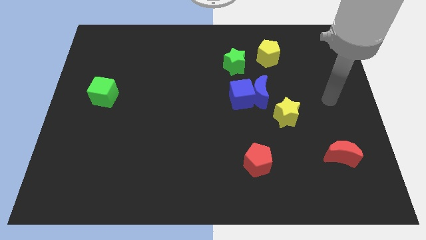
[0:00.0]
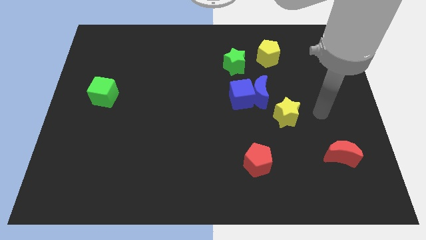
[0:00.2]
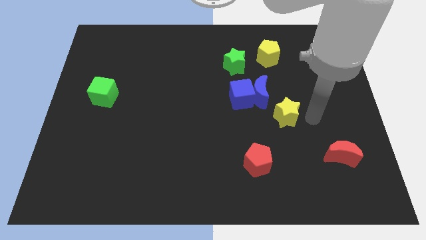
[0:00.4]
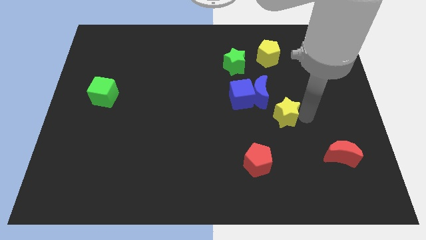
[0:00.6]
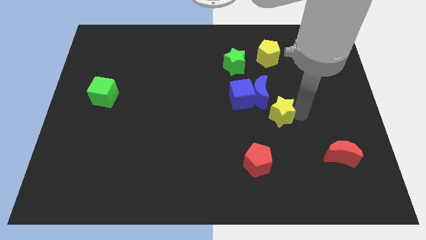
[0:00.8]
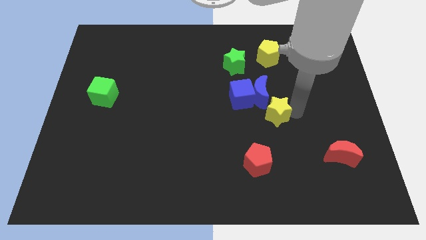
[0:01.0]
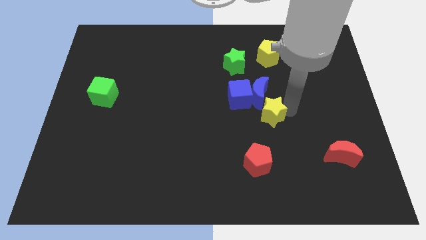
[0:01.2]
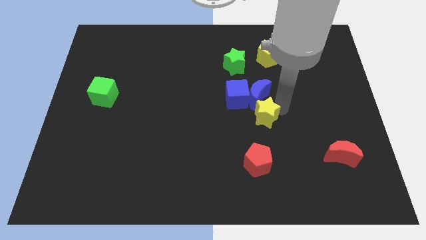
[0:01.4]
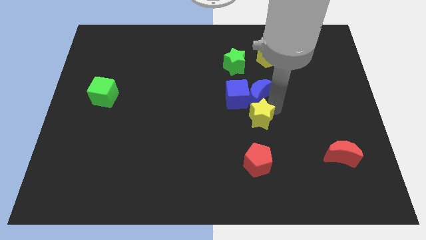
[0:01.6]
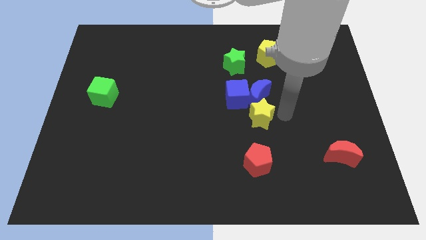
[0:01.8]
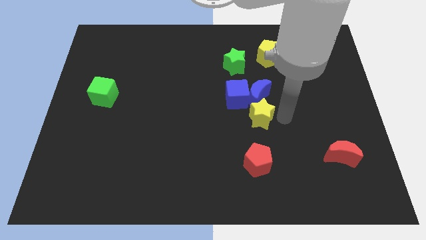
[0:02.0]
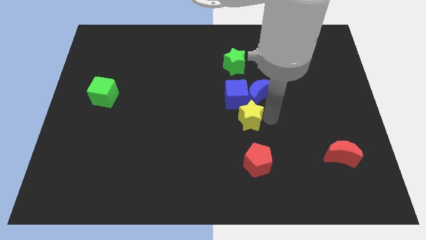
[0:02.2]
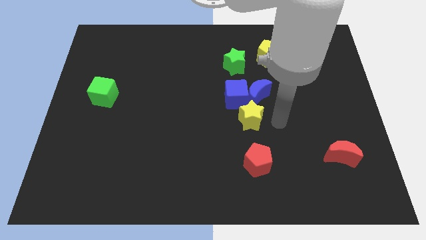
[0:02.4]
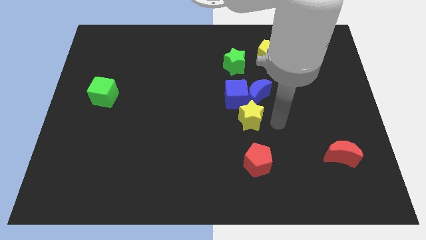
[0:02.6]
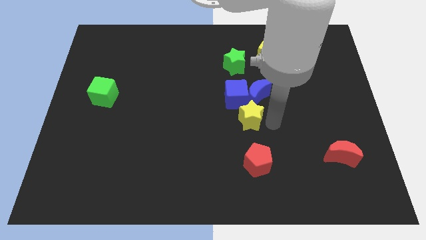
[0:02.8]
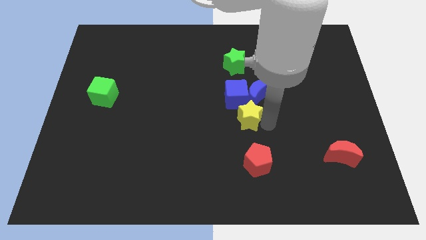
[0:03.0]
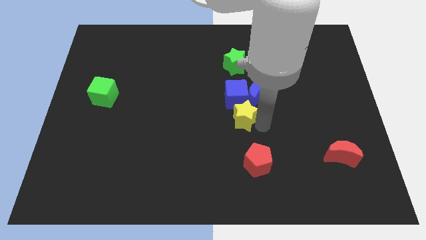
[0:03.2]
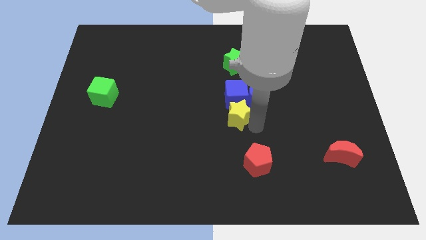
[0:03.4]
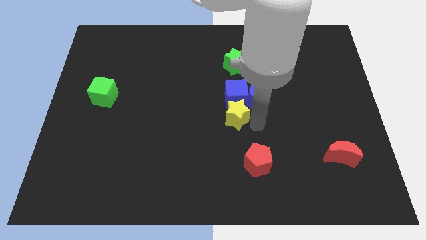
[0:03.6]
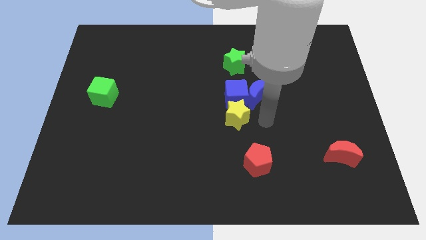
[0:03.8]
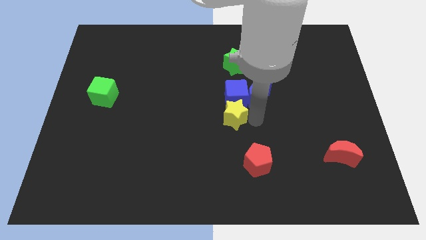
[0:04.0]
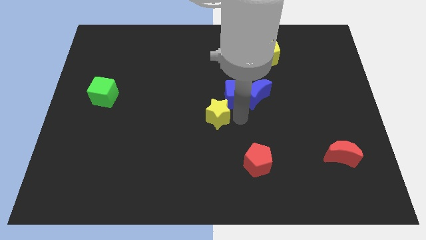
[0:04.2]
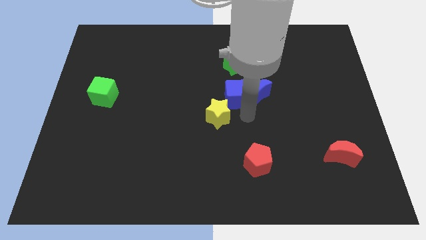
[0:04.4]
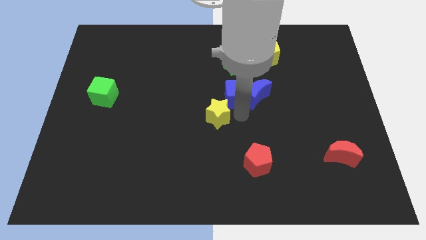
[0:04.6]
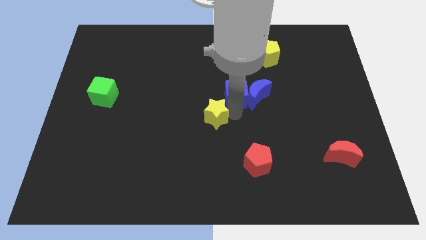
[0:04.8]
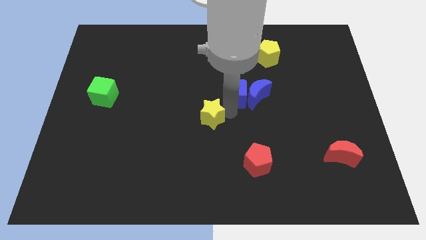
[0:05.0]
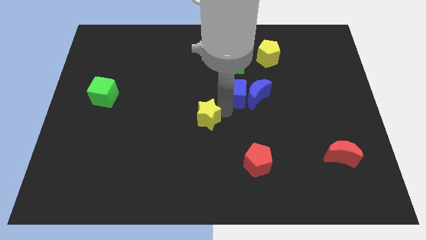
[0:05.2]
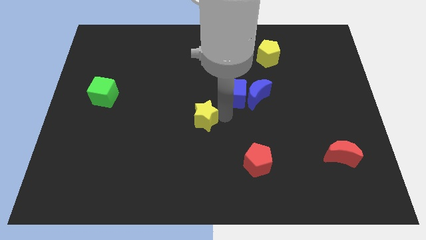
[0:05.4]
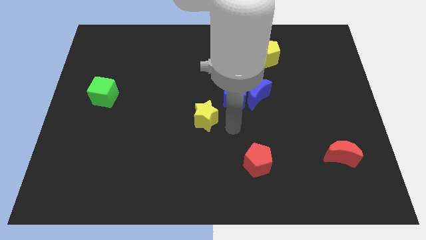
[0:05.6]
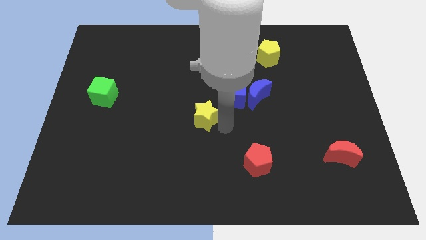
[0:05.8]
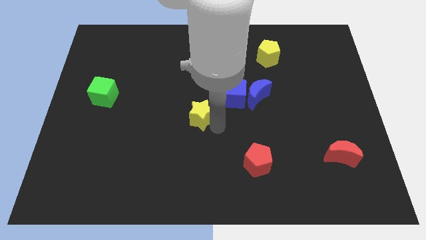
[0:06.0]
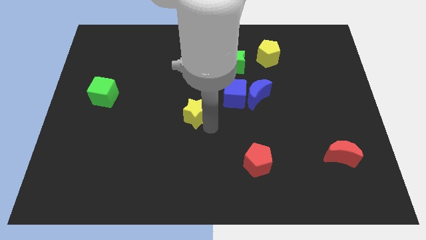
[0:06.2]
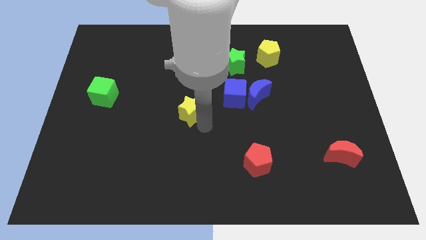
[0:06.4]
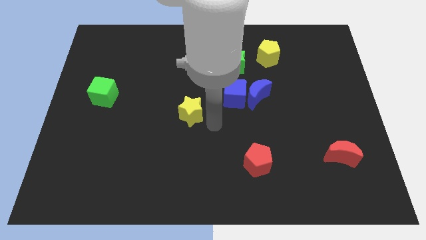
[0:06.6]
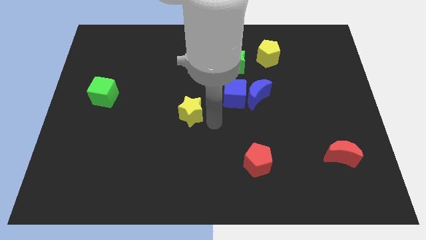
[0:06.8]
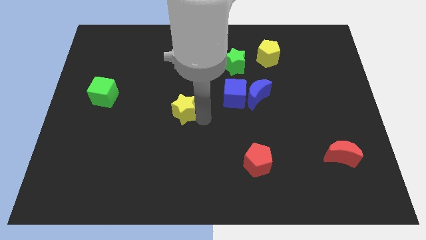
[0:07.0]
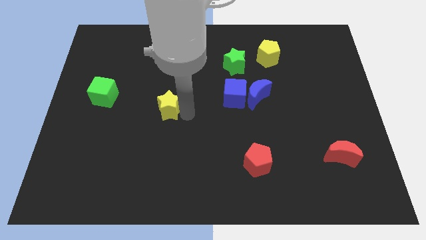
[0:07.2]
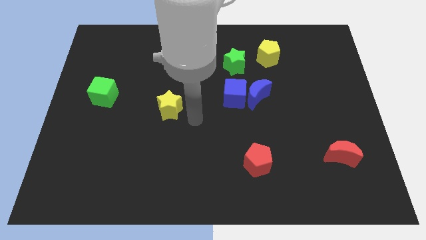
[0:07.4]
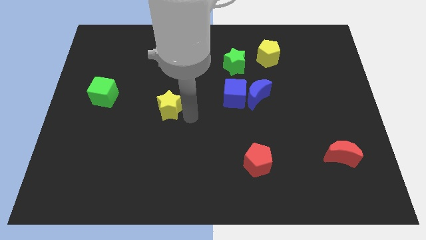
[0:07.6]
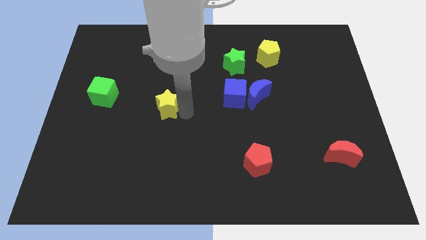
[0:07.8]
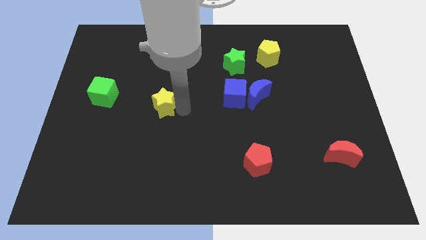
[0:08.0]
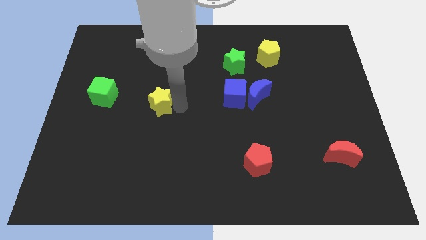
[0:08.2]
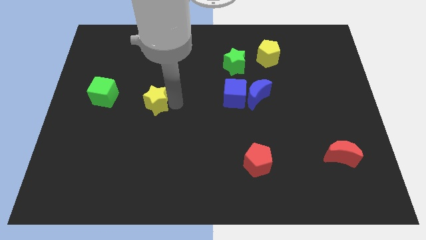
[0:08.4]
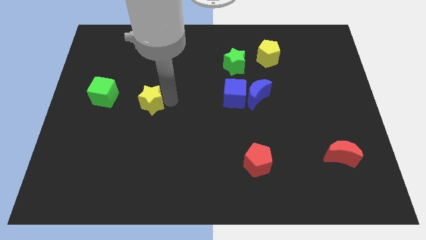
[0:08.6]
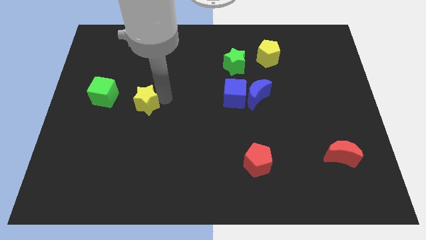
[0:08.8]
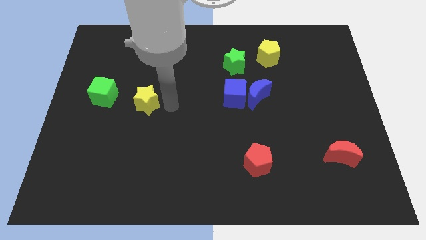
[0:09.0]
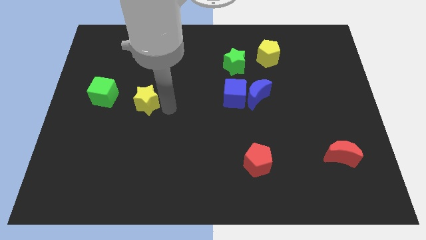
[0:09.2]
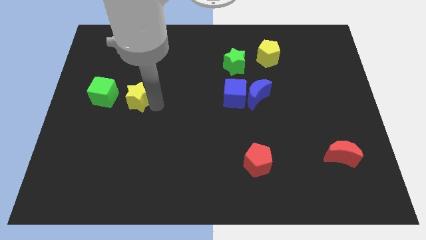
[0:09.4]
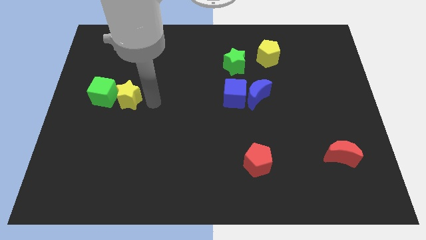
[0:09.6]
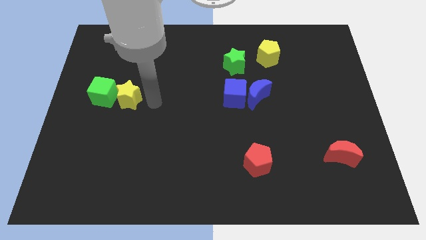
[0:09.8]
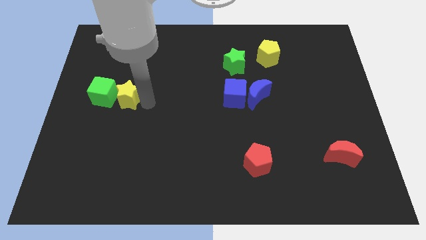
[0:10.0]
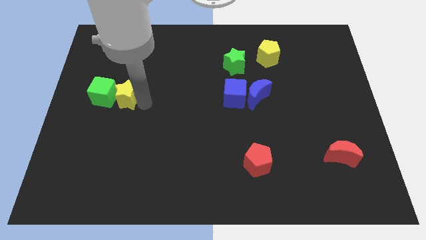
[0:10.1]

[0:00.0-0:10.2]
move the yellow star to the green cube

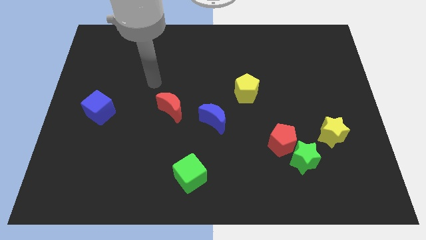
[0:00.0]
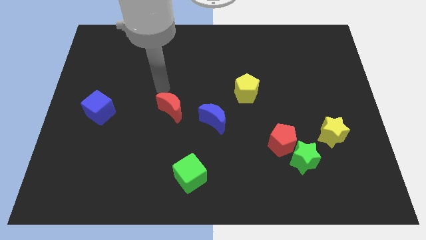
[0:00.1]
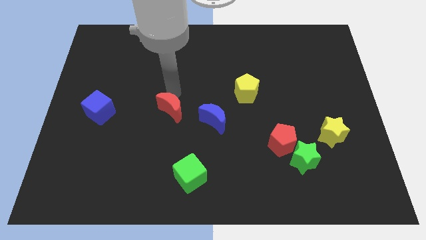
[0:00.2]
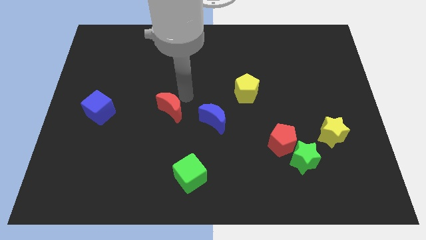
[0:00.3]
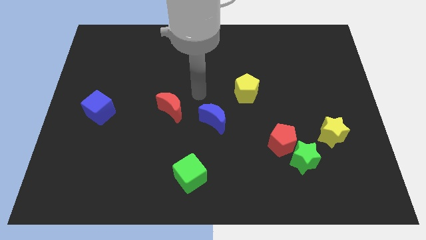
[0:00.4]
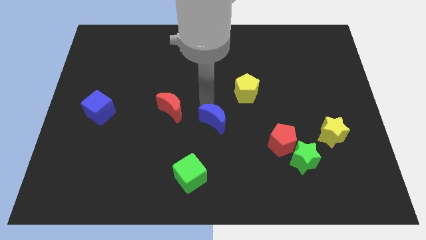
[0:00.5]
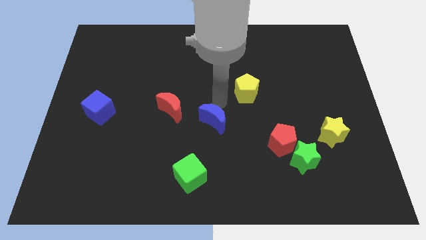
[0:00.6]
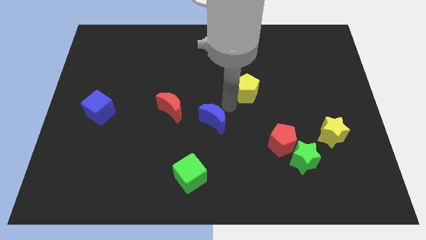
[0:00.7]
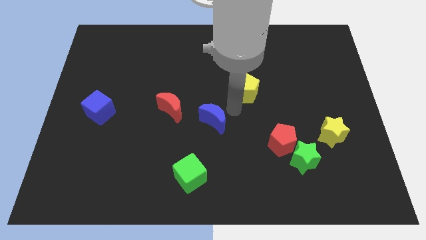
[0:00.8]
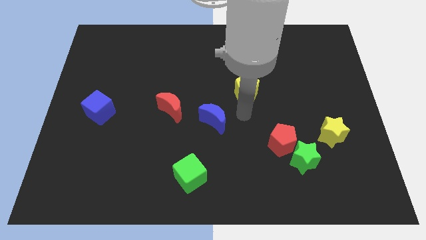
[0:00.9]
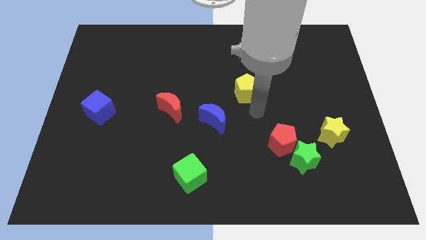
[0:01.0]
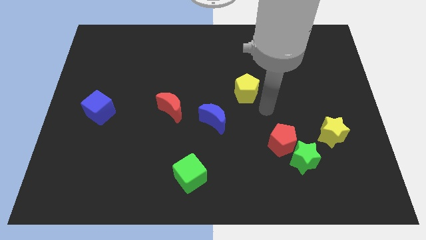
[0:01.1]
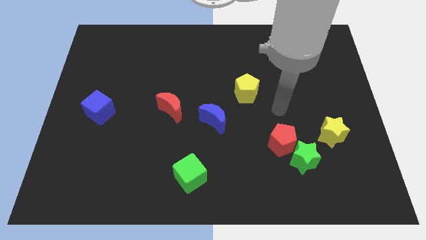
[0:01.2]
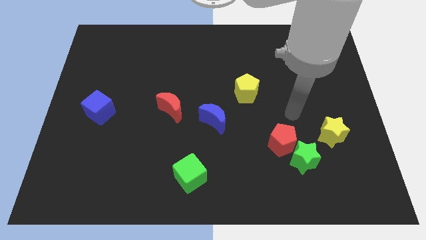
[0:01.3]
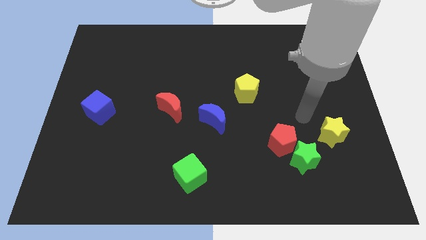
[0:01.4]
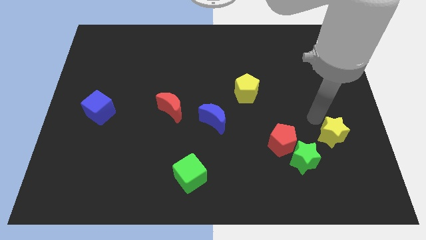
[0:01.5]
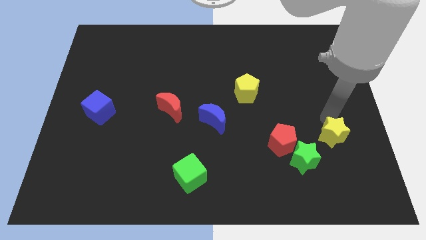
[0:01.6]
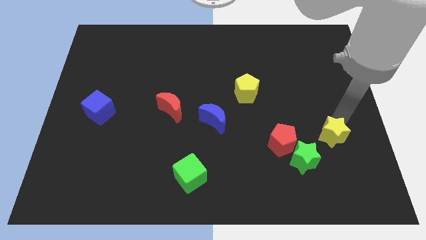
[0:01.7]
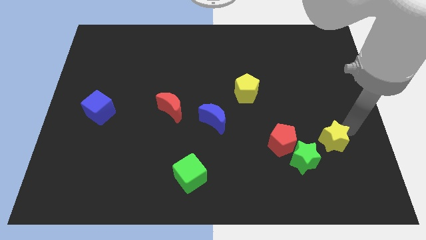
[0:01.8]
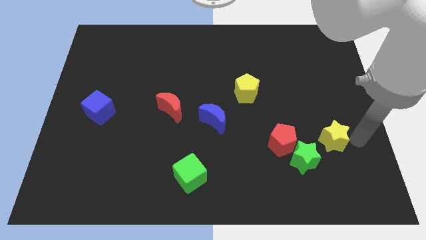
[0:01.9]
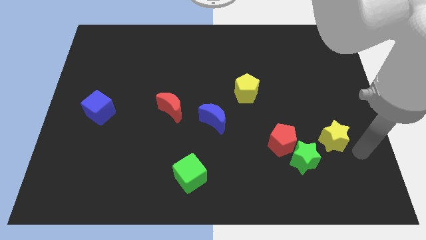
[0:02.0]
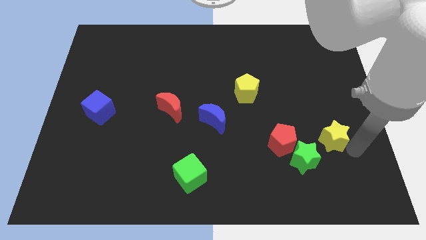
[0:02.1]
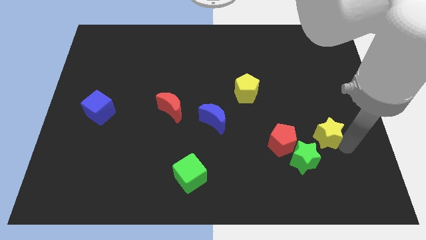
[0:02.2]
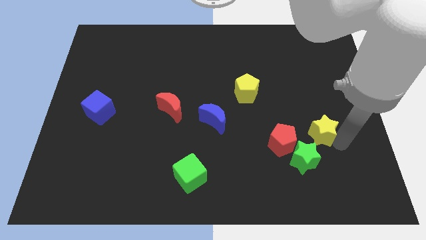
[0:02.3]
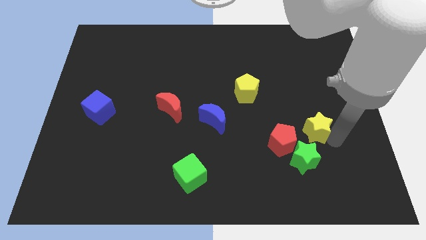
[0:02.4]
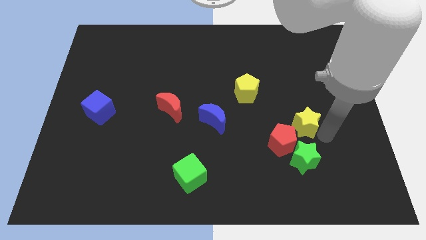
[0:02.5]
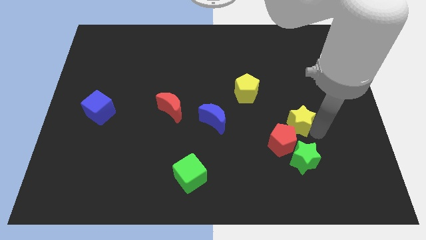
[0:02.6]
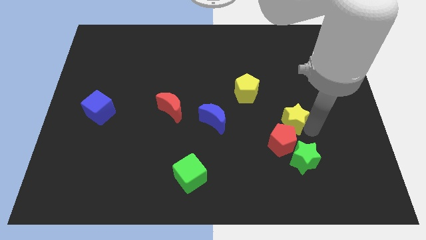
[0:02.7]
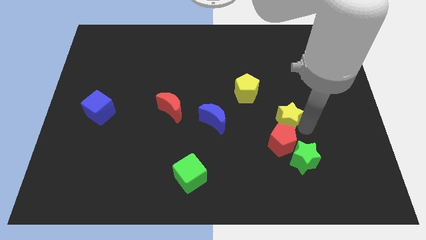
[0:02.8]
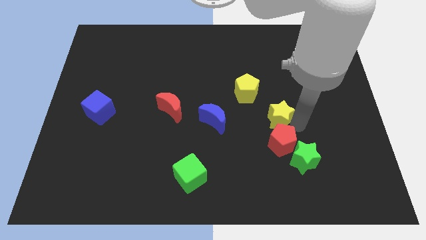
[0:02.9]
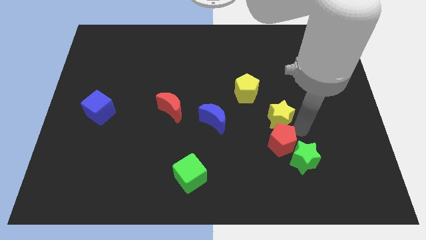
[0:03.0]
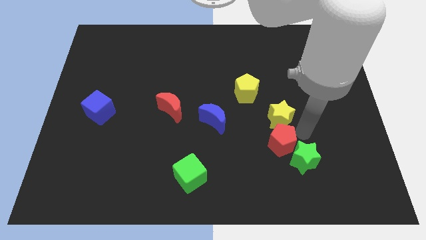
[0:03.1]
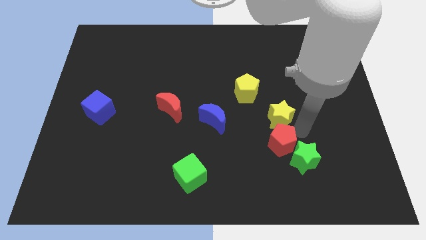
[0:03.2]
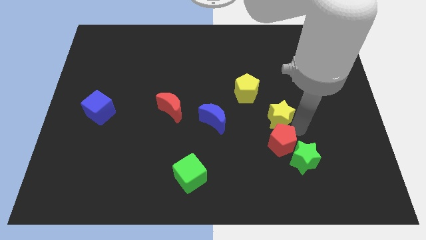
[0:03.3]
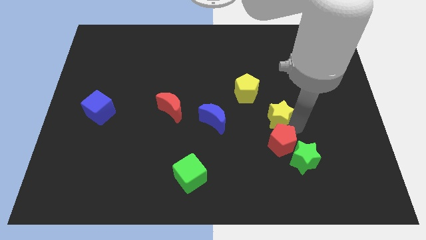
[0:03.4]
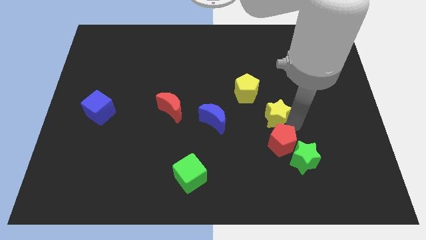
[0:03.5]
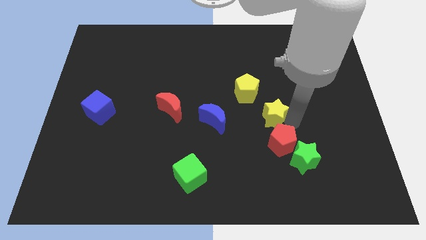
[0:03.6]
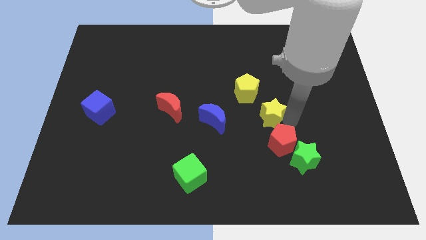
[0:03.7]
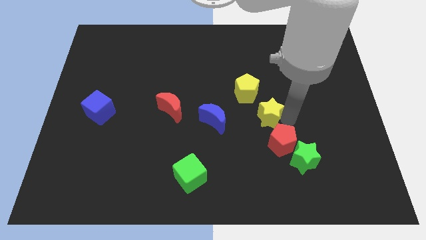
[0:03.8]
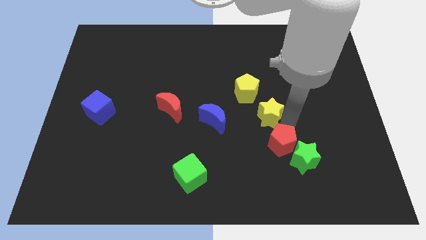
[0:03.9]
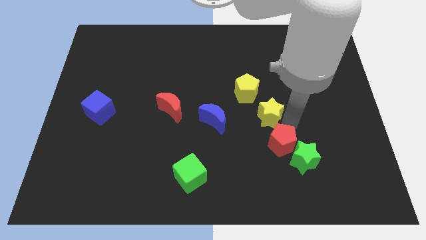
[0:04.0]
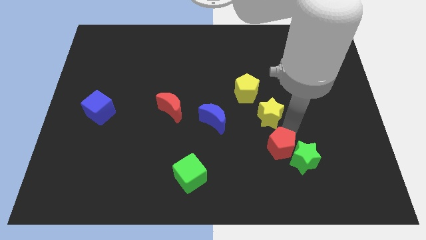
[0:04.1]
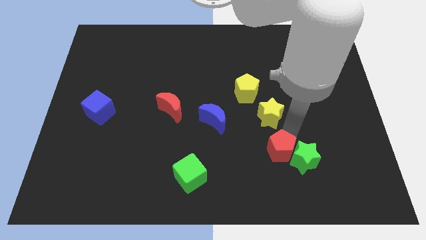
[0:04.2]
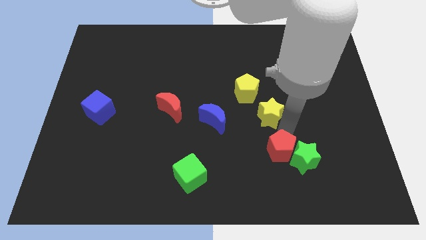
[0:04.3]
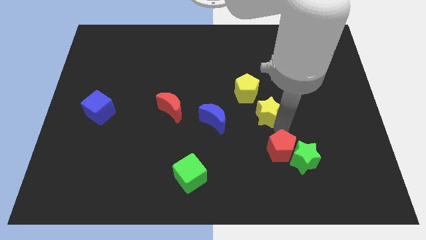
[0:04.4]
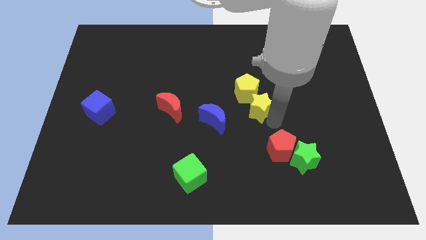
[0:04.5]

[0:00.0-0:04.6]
slide the yellow star to the yellow pentagon
